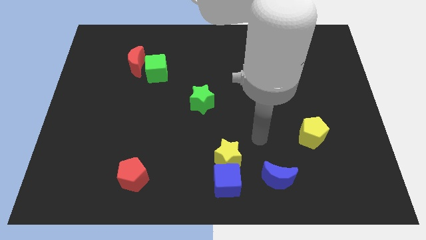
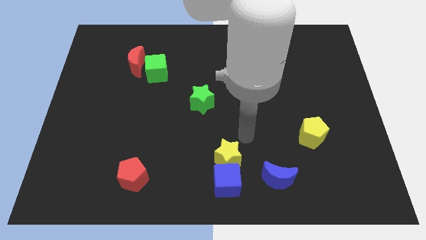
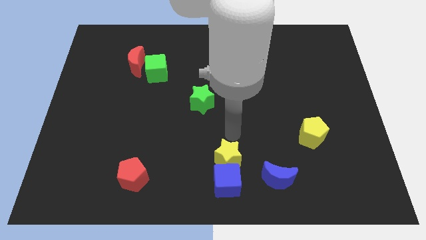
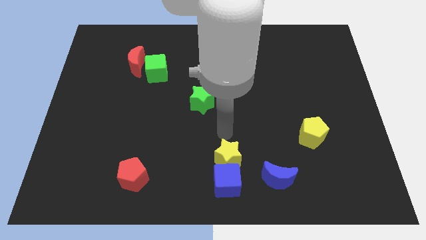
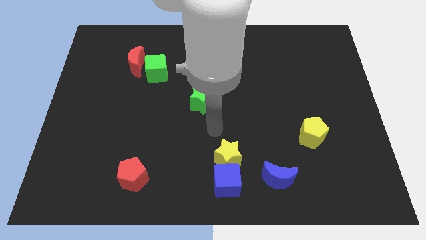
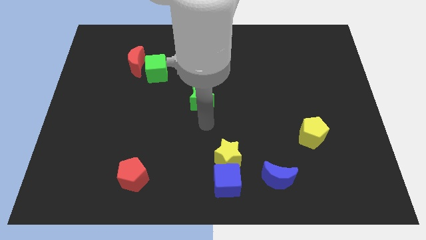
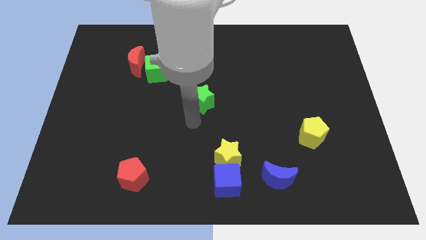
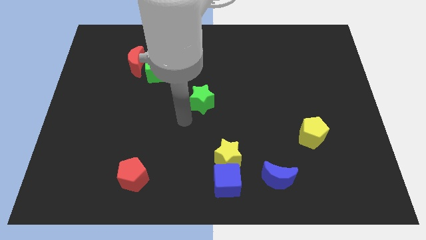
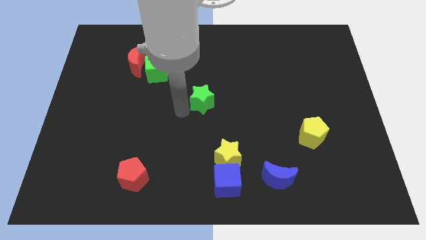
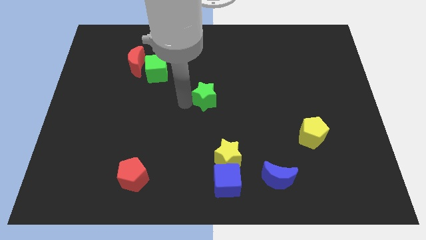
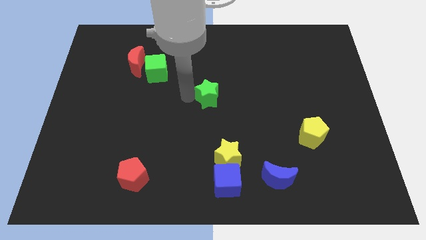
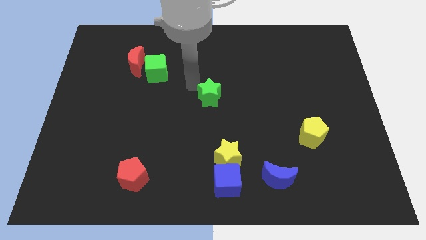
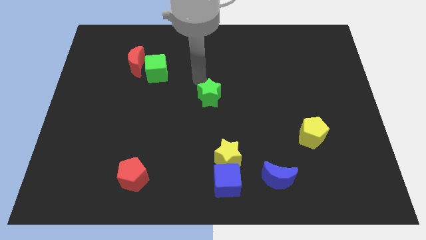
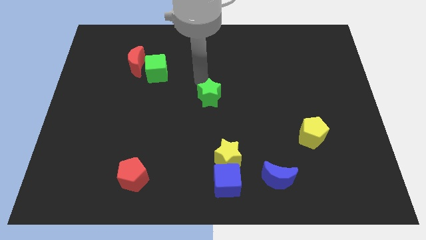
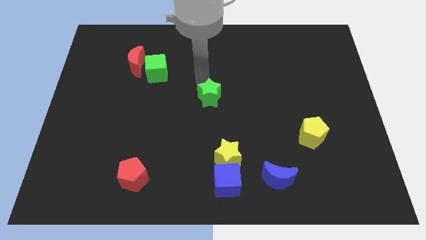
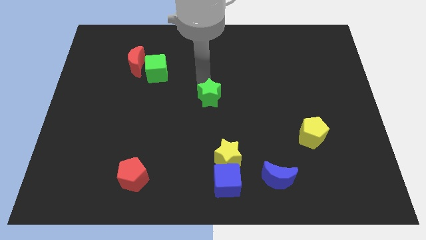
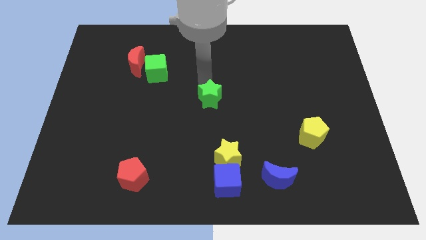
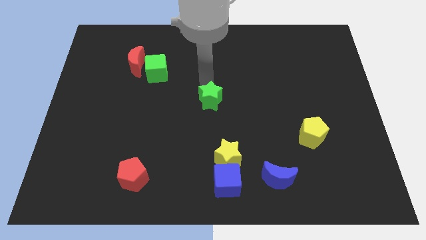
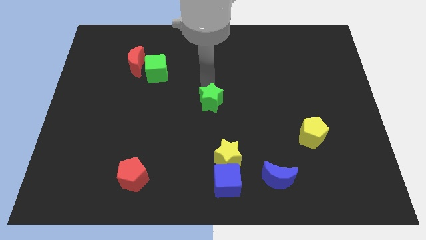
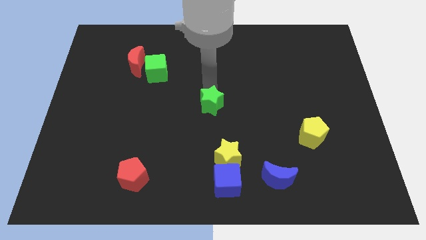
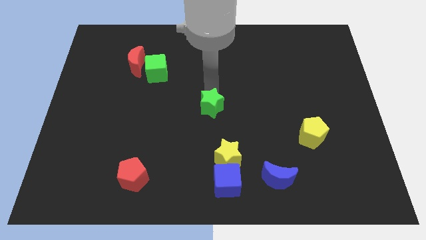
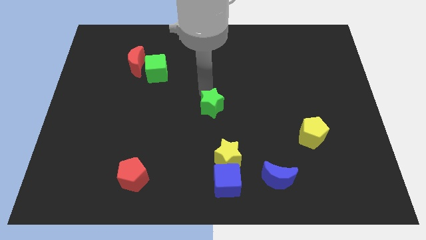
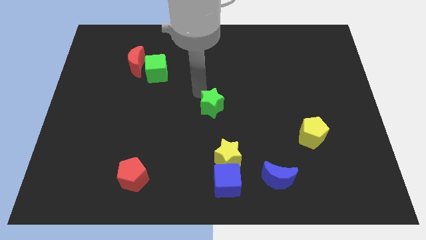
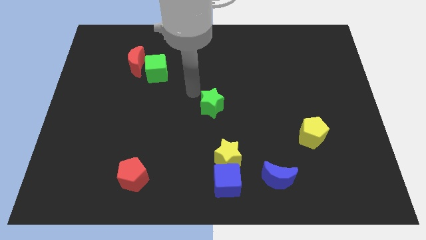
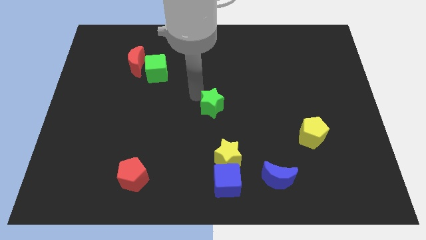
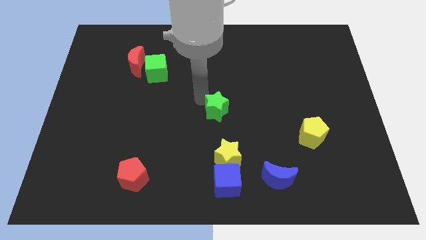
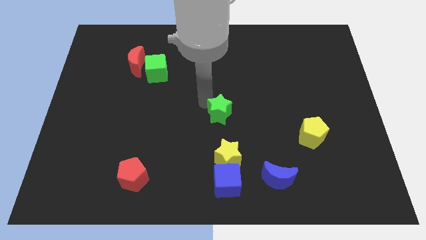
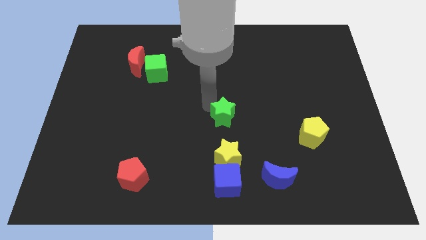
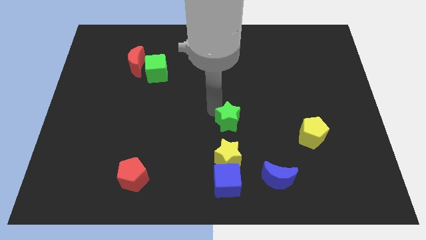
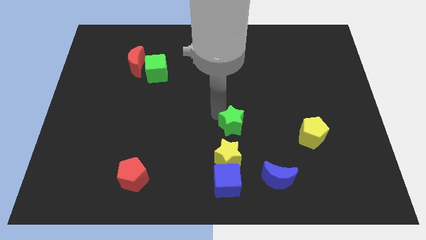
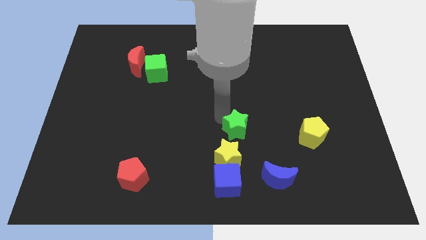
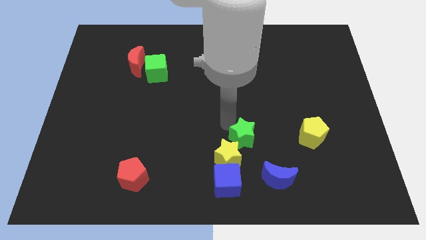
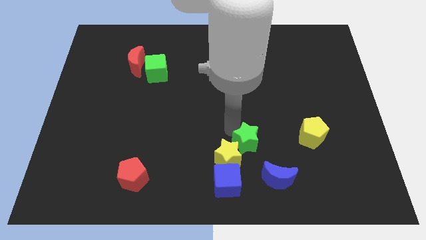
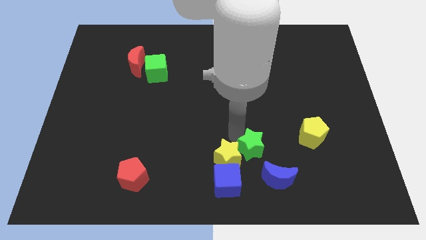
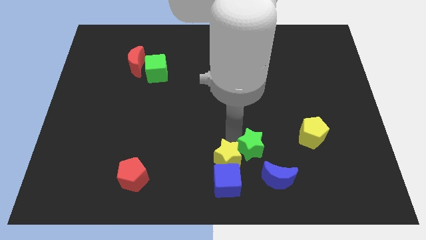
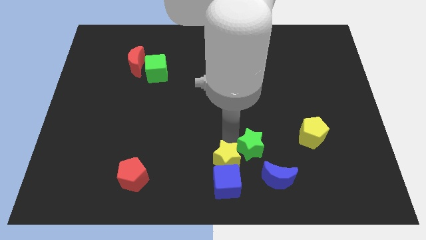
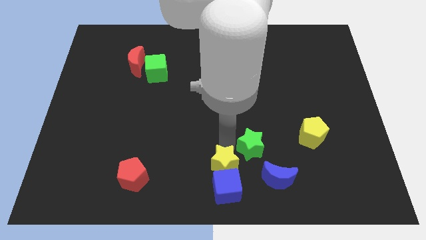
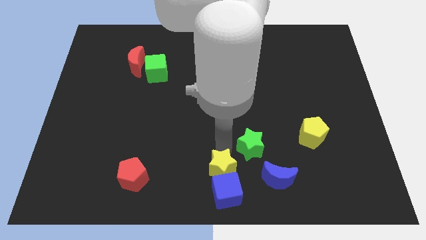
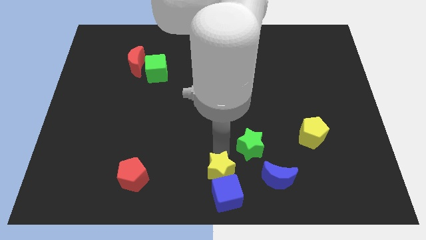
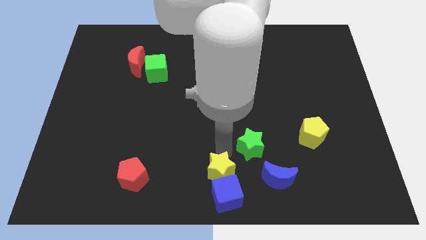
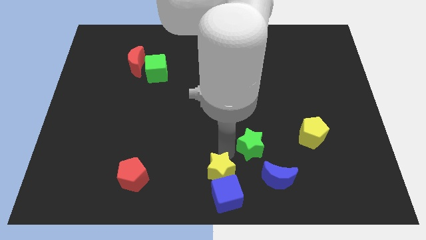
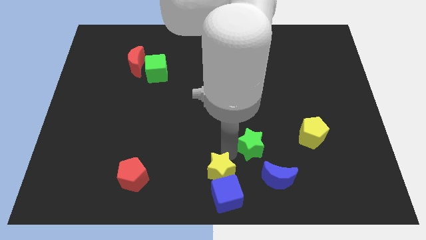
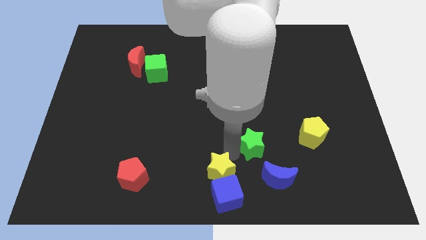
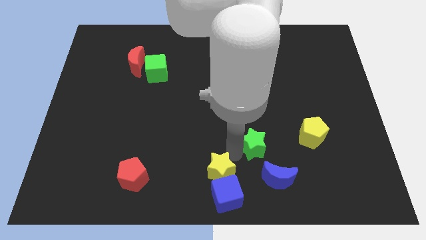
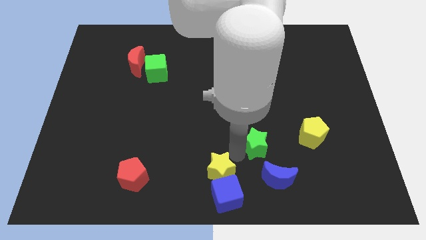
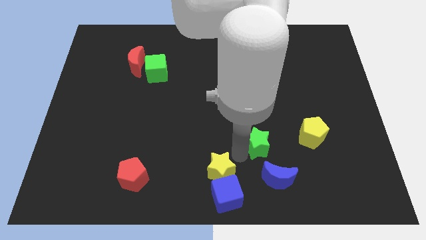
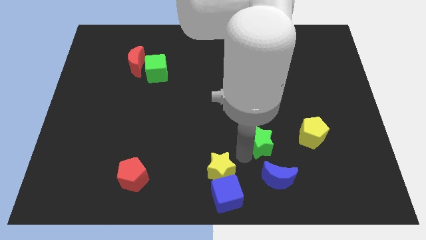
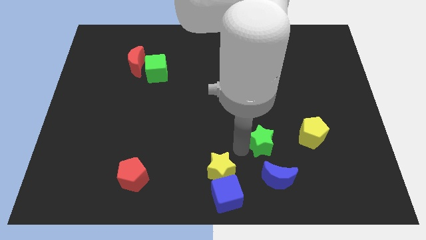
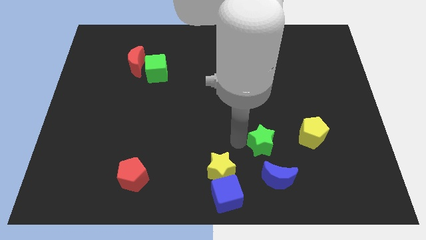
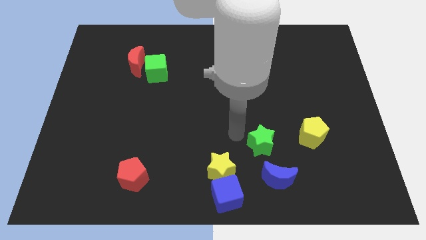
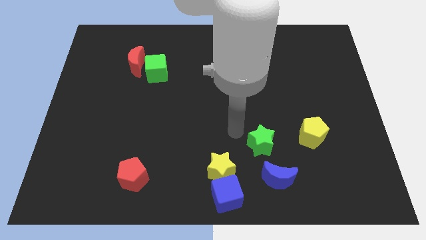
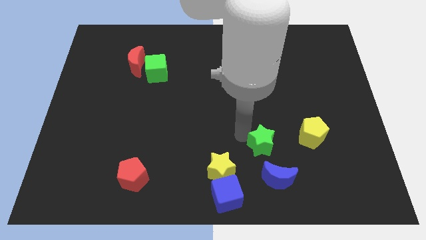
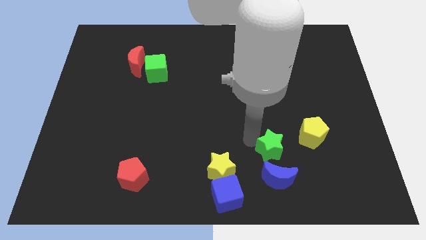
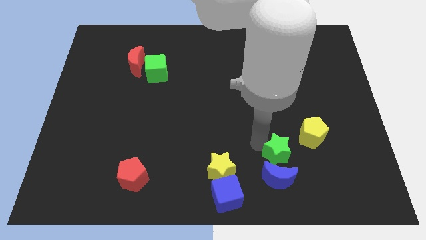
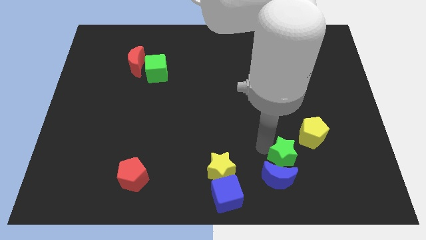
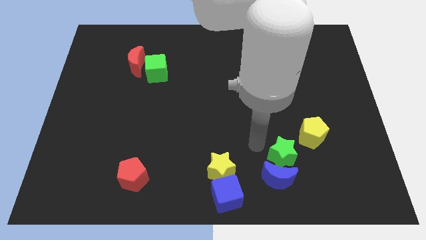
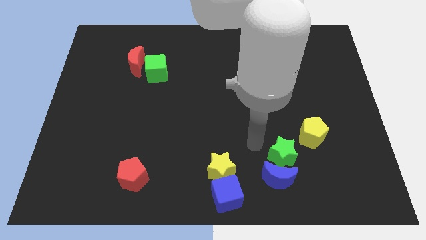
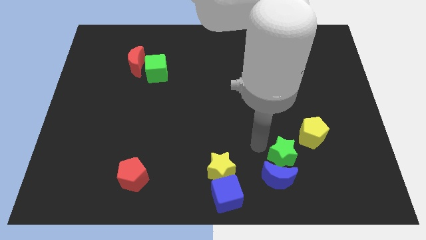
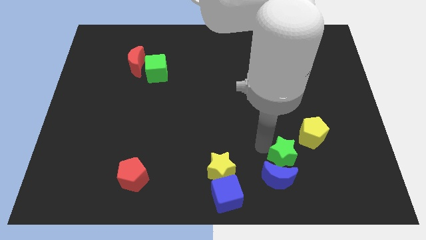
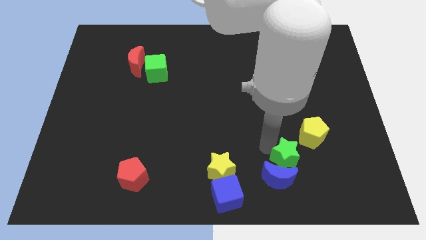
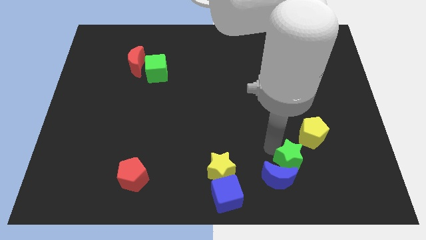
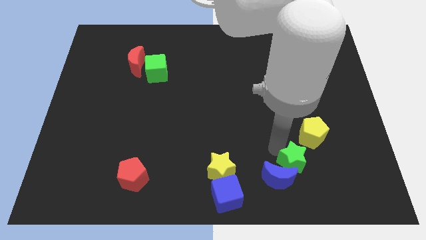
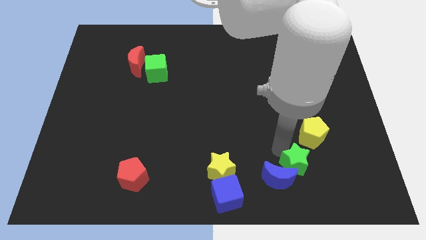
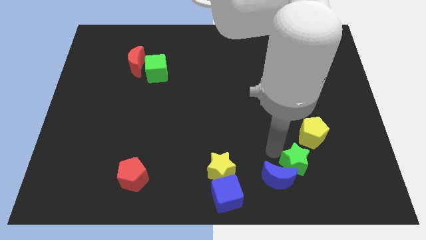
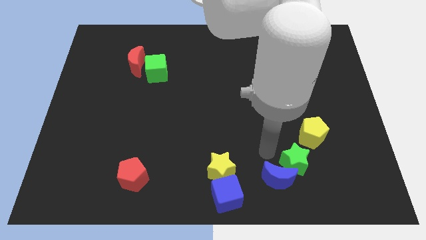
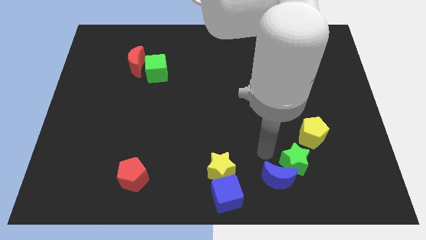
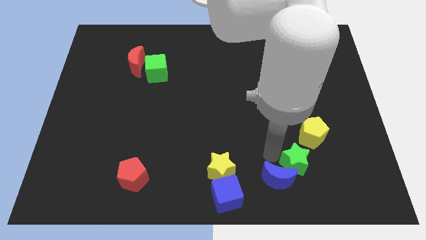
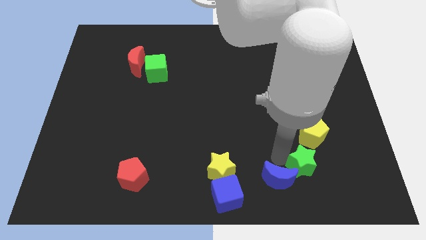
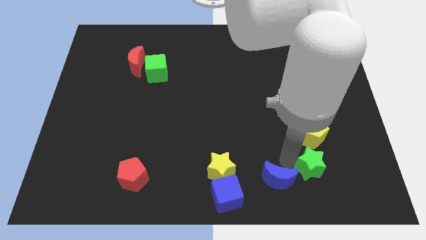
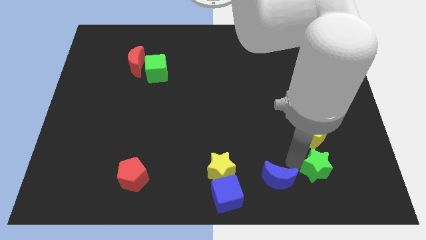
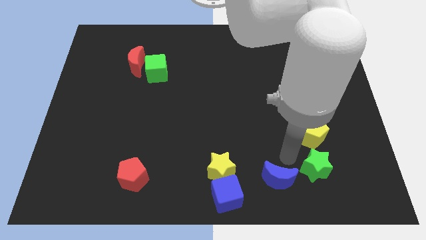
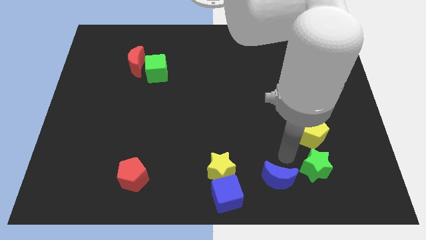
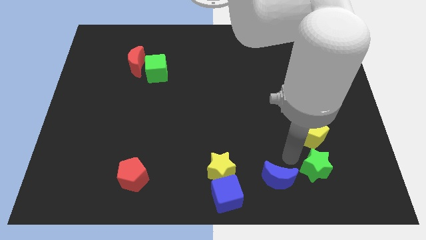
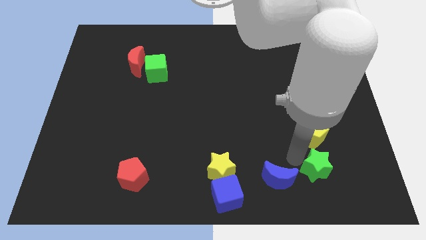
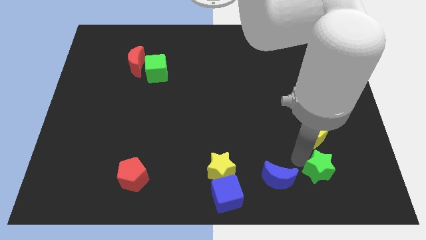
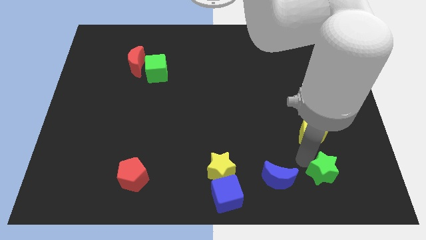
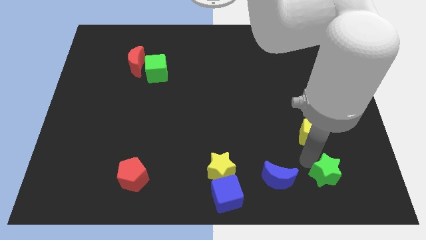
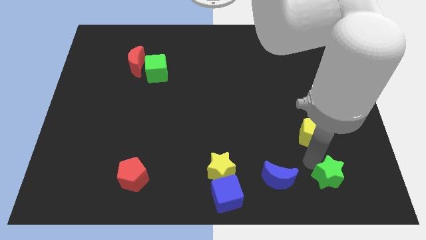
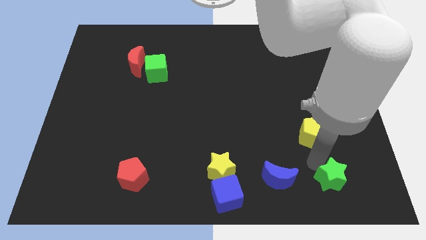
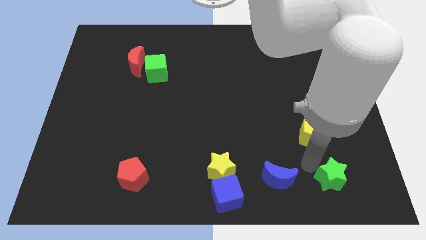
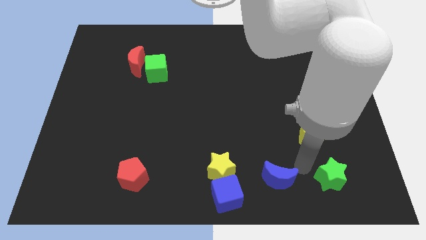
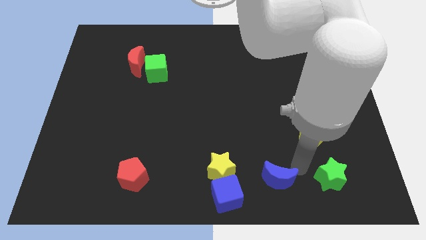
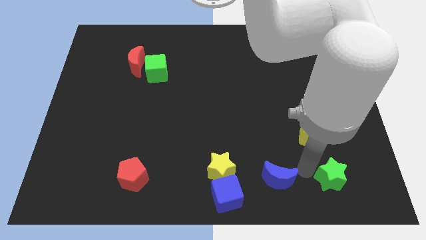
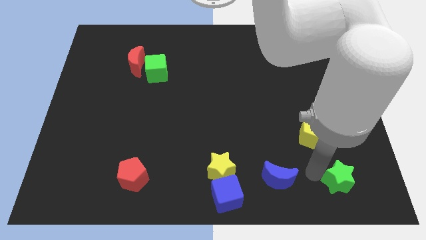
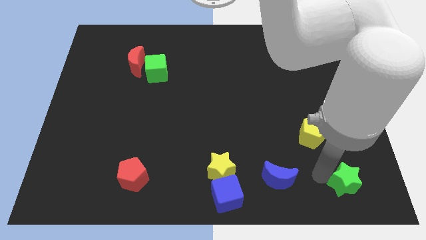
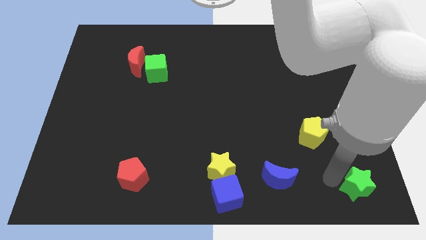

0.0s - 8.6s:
move the green star to the bottom right of the board
